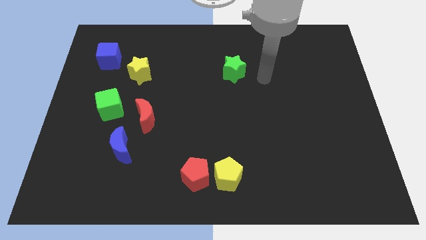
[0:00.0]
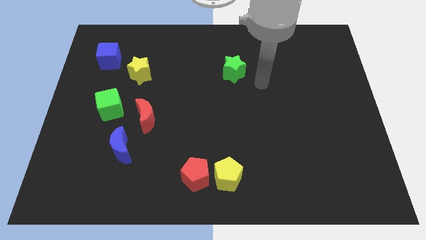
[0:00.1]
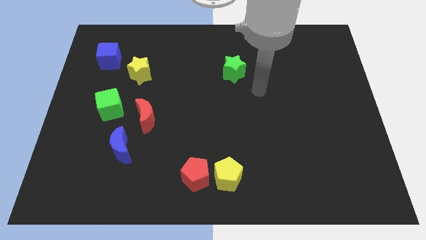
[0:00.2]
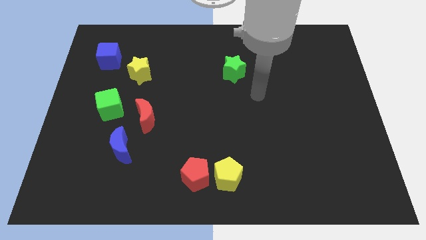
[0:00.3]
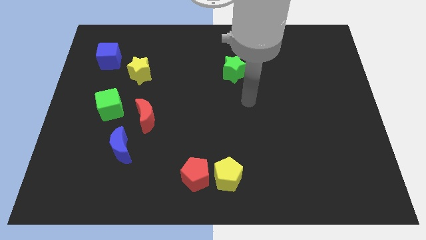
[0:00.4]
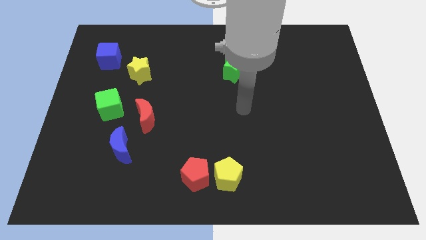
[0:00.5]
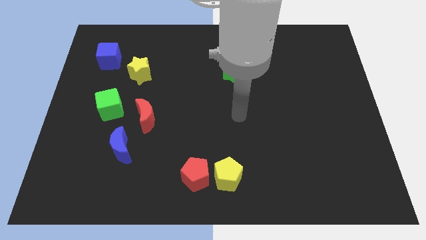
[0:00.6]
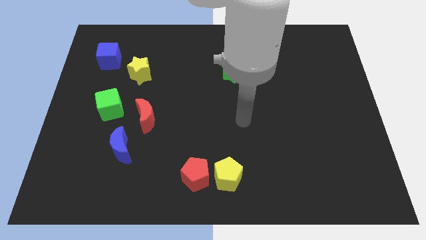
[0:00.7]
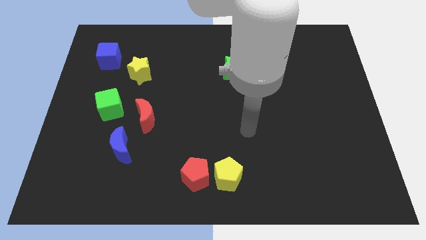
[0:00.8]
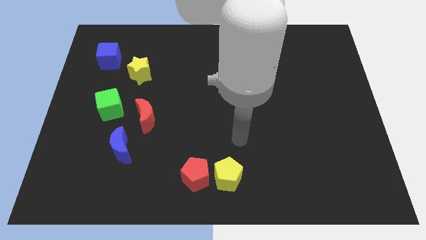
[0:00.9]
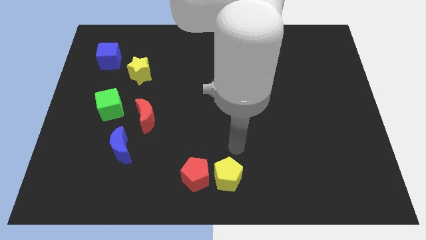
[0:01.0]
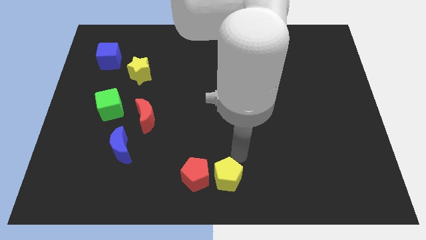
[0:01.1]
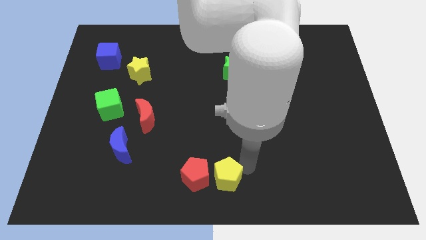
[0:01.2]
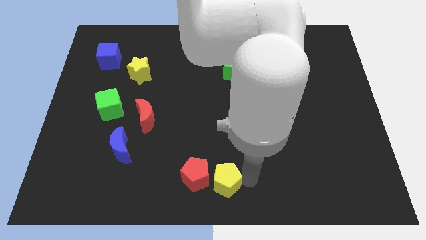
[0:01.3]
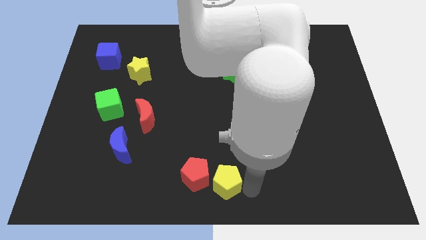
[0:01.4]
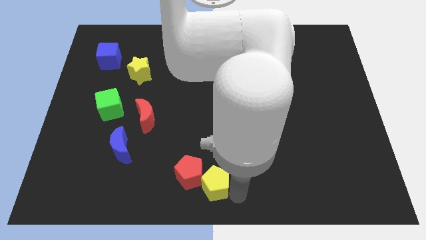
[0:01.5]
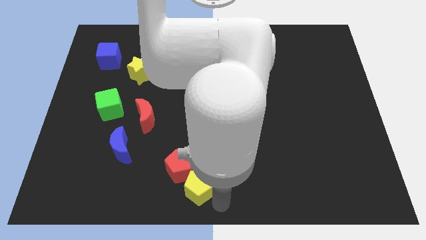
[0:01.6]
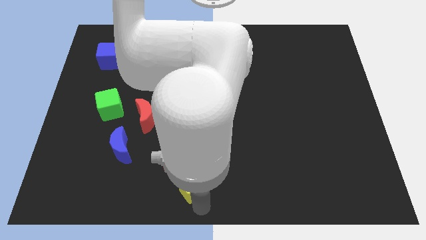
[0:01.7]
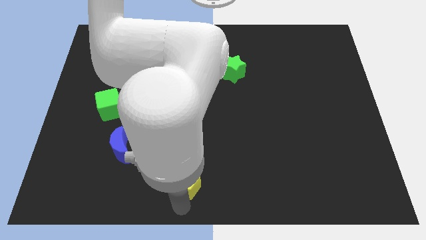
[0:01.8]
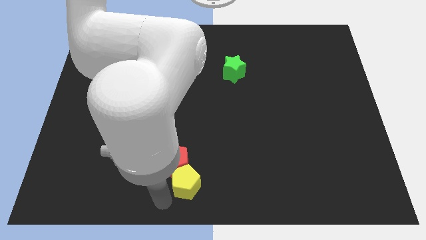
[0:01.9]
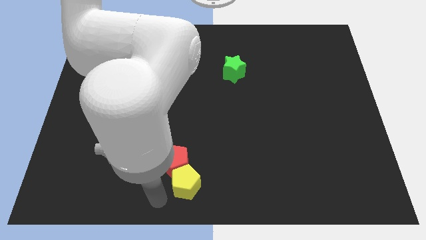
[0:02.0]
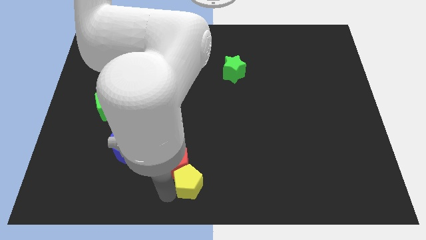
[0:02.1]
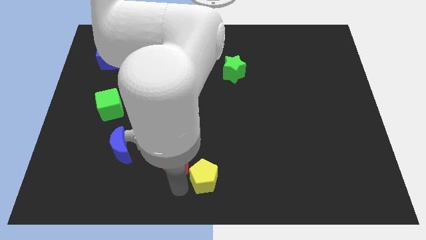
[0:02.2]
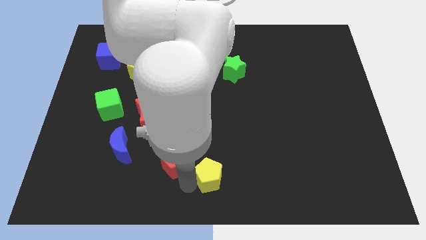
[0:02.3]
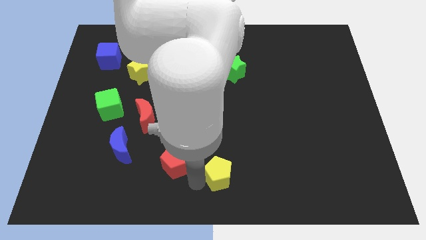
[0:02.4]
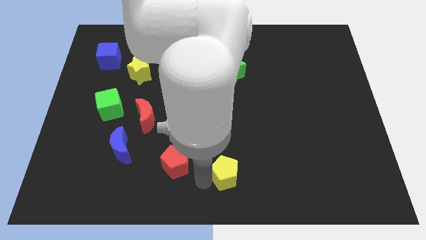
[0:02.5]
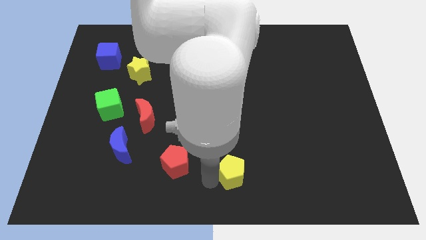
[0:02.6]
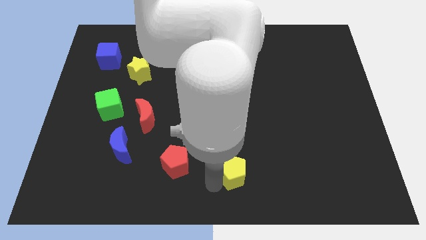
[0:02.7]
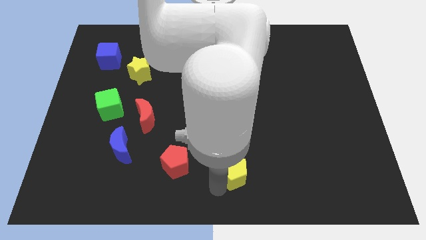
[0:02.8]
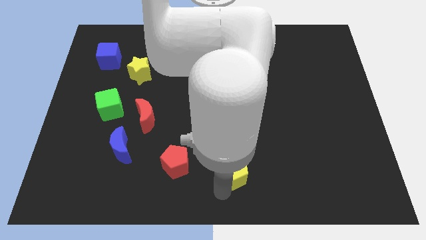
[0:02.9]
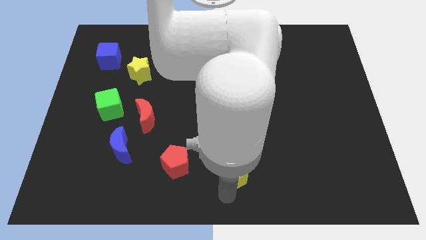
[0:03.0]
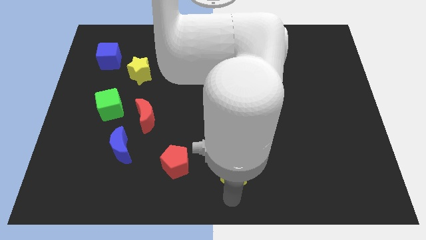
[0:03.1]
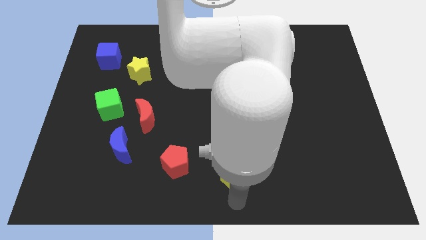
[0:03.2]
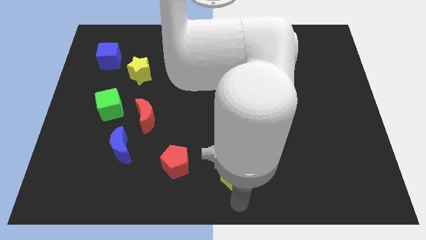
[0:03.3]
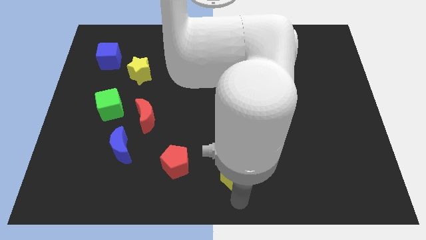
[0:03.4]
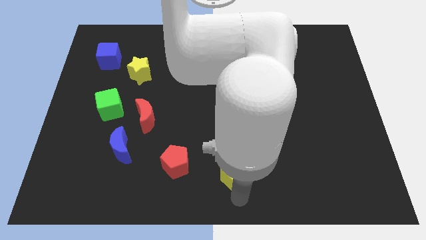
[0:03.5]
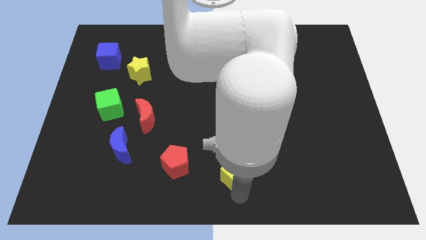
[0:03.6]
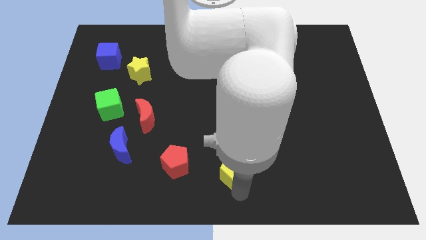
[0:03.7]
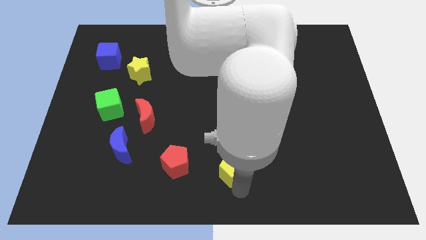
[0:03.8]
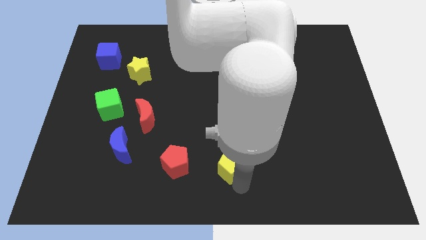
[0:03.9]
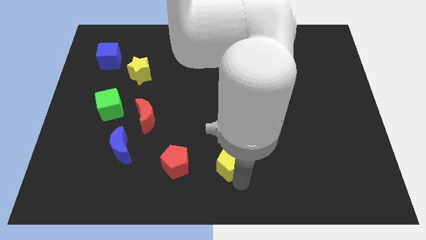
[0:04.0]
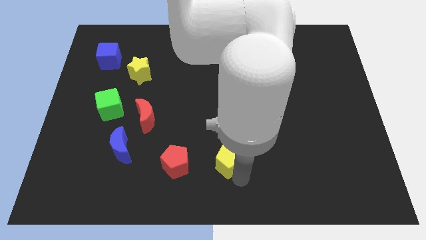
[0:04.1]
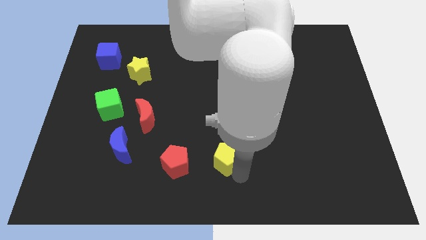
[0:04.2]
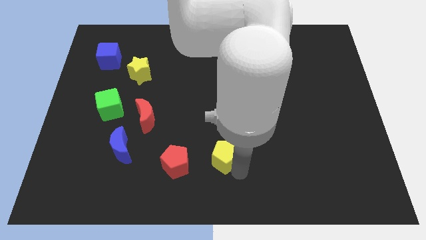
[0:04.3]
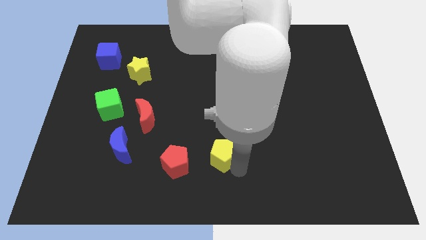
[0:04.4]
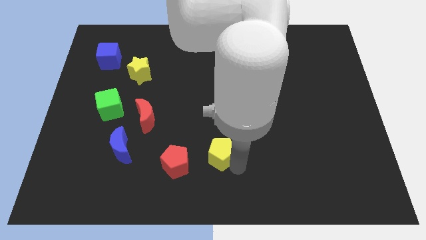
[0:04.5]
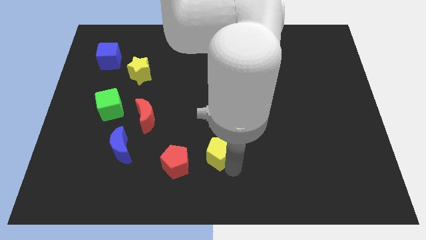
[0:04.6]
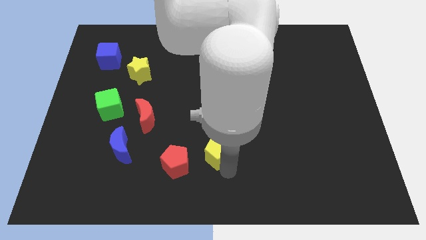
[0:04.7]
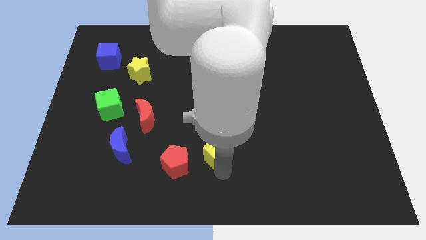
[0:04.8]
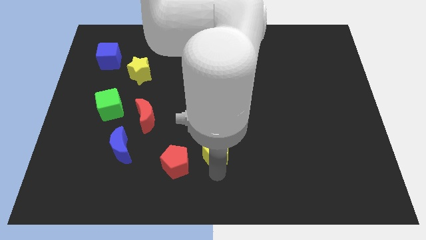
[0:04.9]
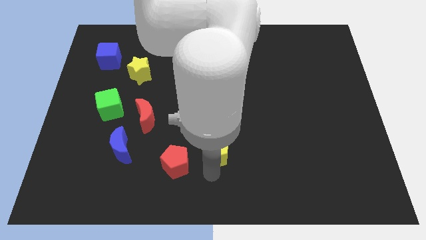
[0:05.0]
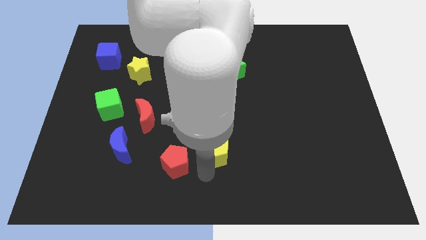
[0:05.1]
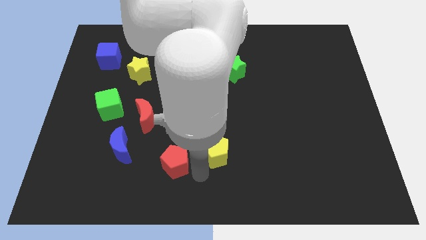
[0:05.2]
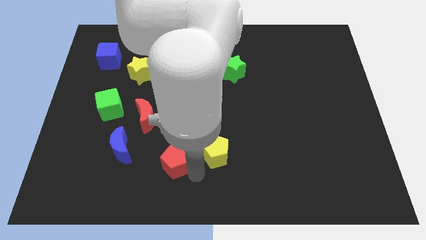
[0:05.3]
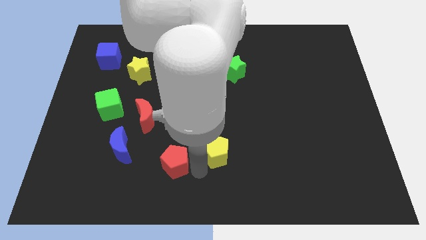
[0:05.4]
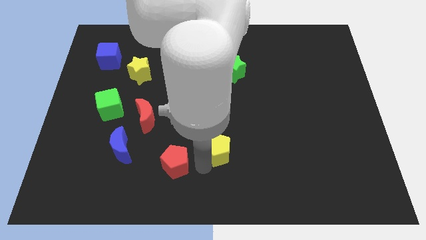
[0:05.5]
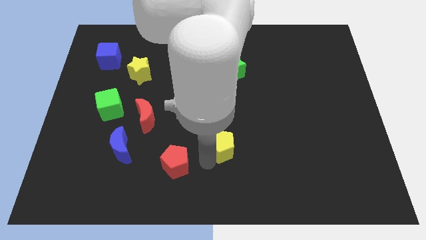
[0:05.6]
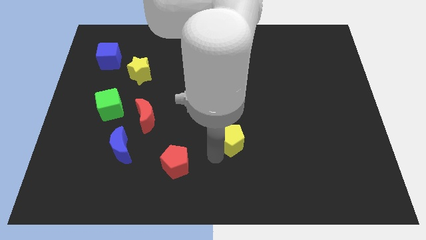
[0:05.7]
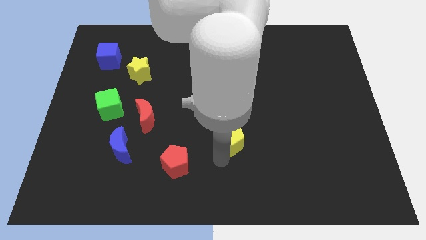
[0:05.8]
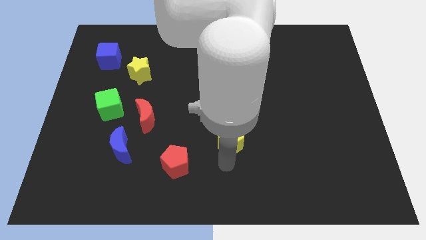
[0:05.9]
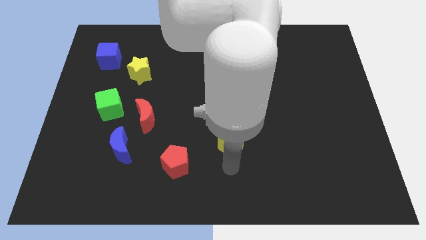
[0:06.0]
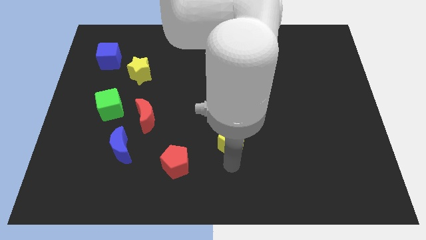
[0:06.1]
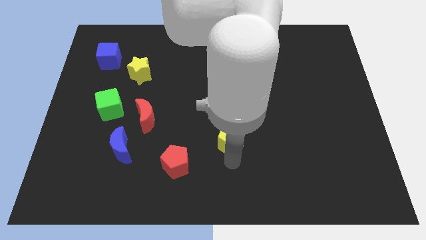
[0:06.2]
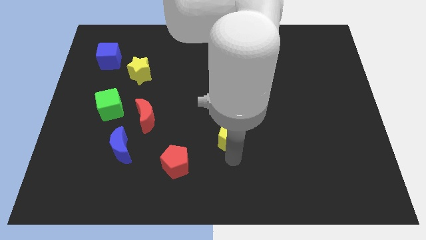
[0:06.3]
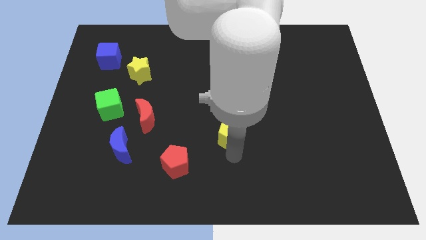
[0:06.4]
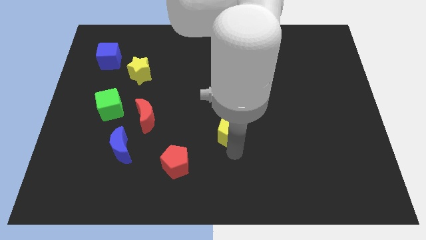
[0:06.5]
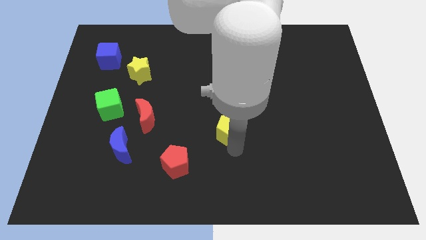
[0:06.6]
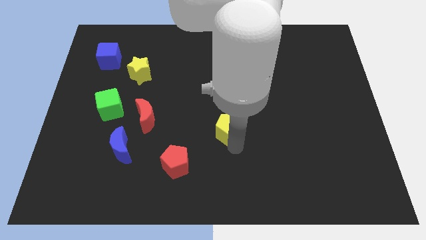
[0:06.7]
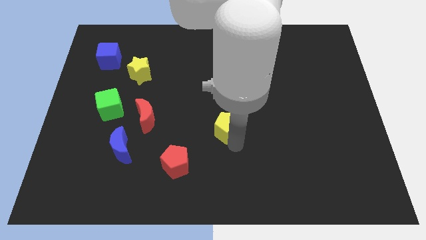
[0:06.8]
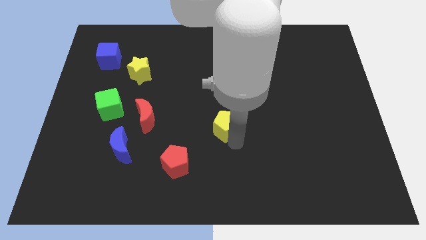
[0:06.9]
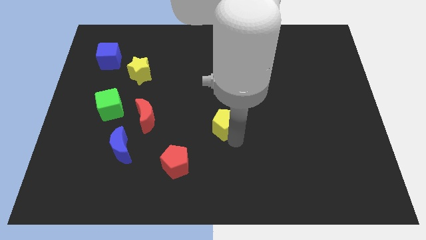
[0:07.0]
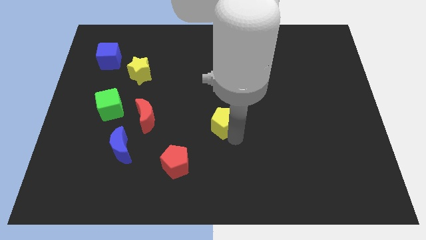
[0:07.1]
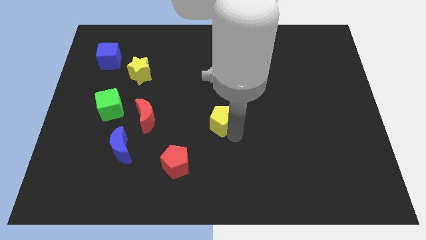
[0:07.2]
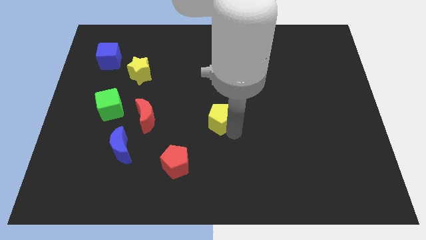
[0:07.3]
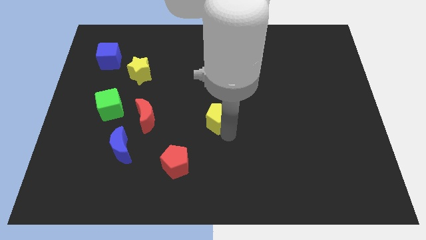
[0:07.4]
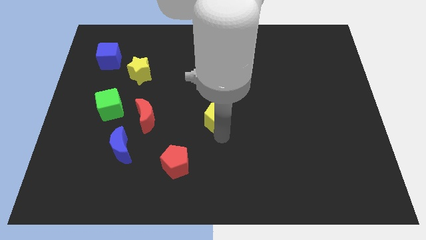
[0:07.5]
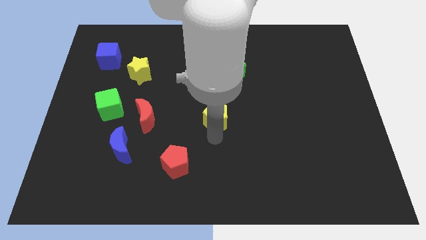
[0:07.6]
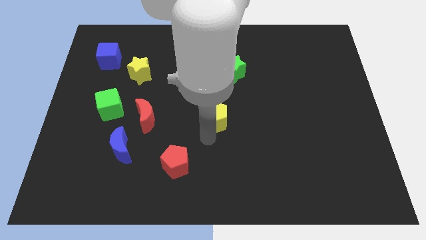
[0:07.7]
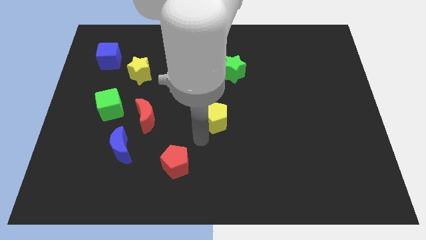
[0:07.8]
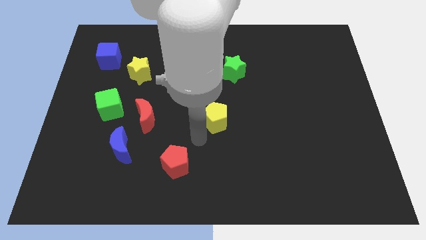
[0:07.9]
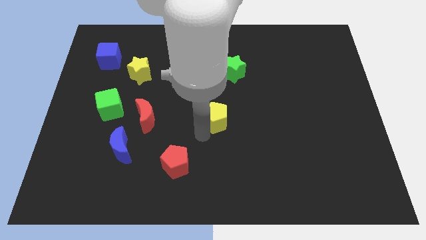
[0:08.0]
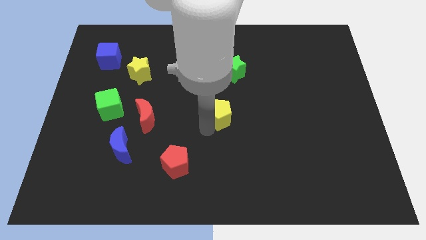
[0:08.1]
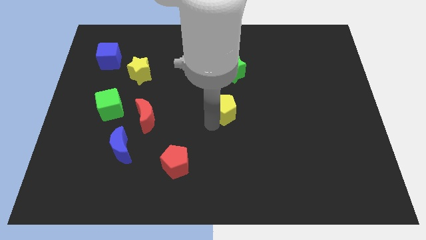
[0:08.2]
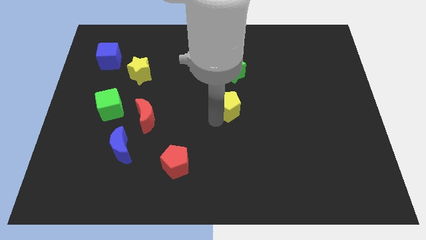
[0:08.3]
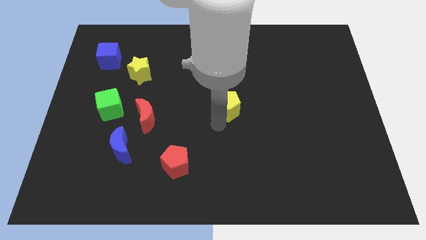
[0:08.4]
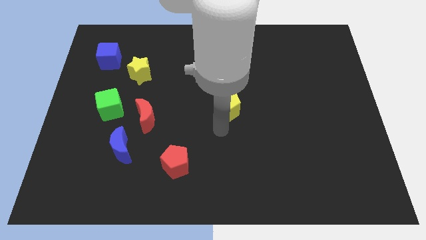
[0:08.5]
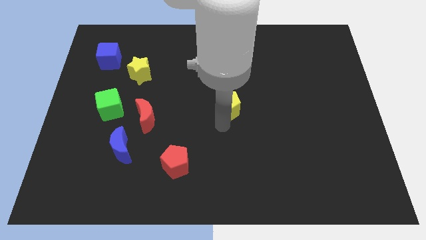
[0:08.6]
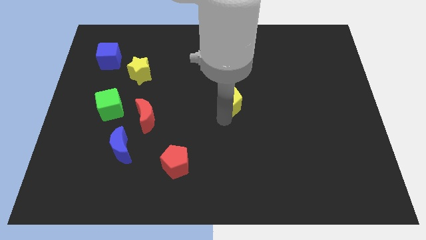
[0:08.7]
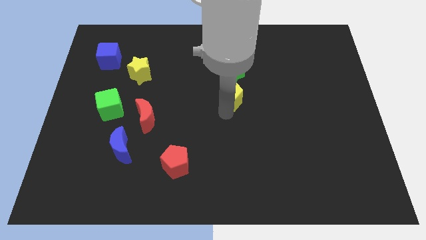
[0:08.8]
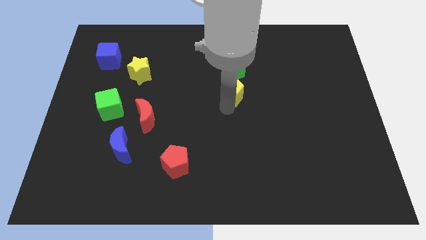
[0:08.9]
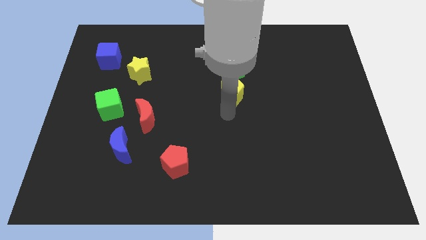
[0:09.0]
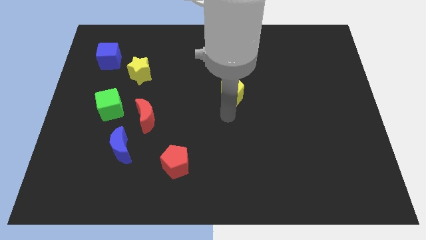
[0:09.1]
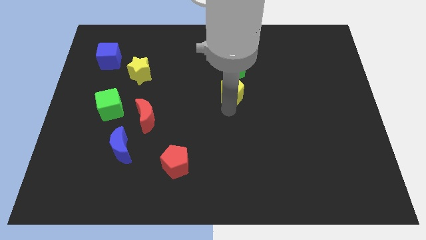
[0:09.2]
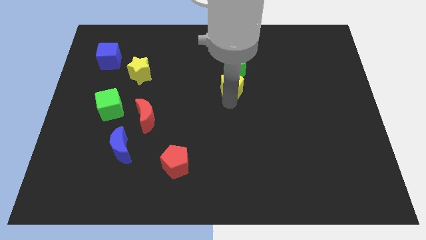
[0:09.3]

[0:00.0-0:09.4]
slide the yellow pentagon close to the green star
